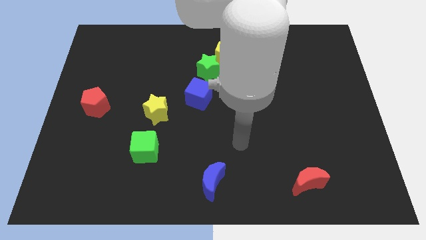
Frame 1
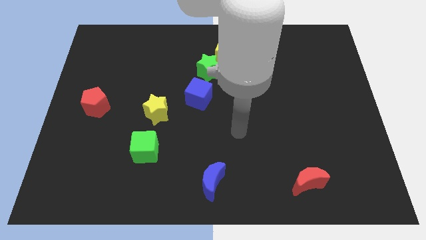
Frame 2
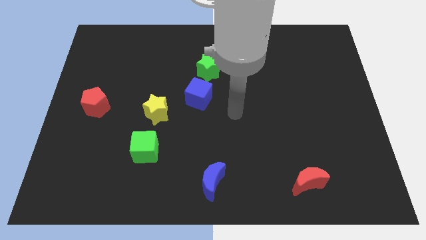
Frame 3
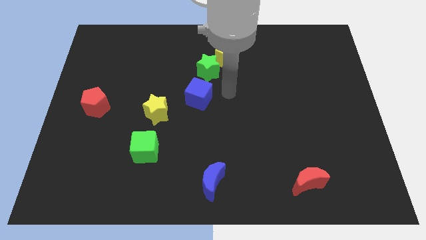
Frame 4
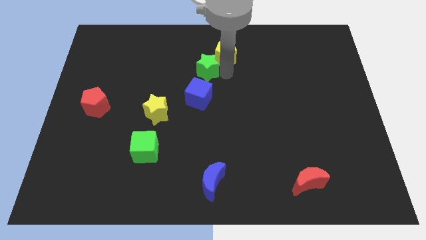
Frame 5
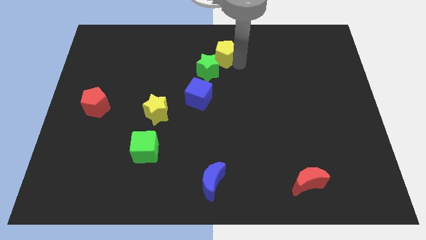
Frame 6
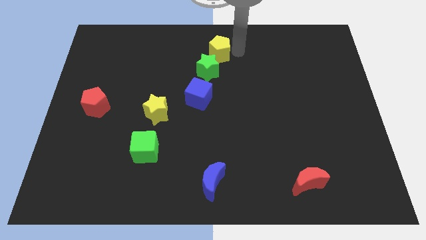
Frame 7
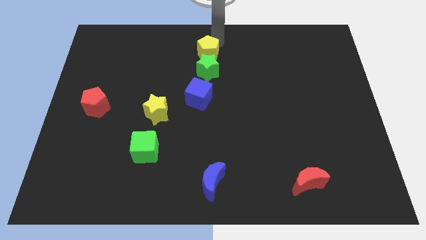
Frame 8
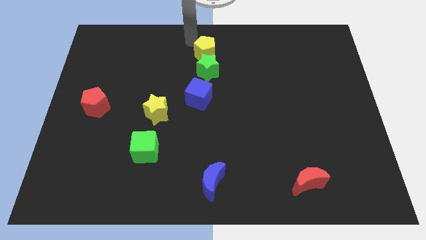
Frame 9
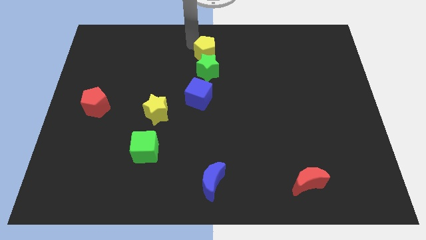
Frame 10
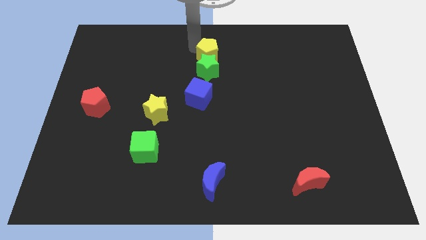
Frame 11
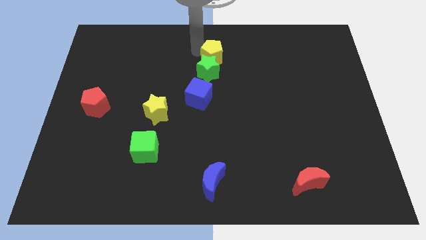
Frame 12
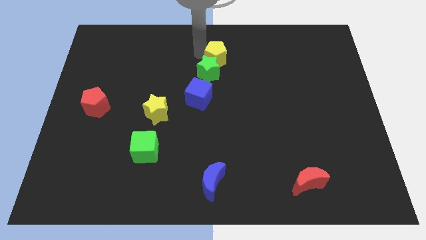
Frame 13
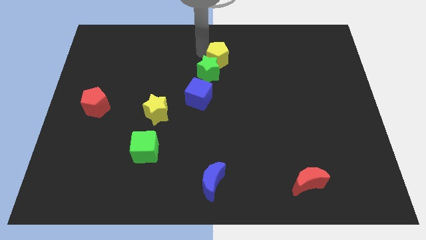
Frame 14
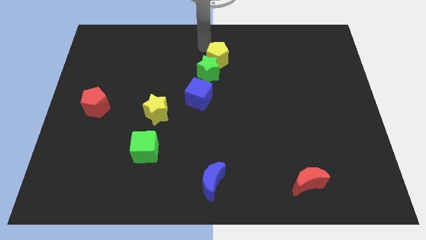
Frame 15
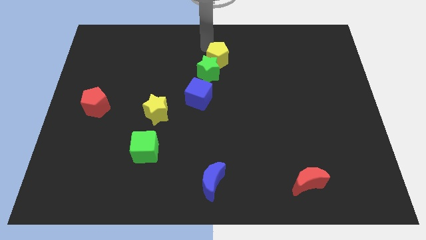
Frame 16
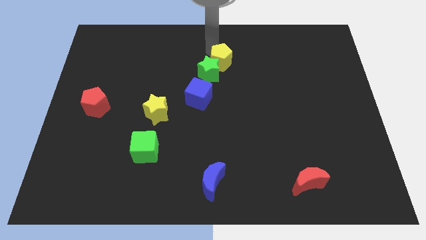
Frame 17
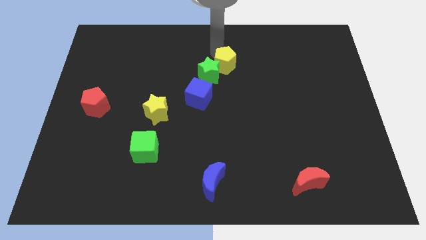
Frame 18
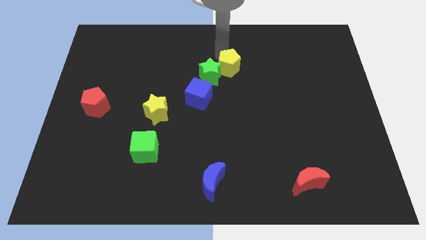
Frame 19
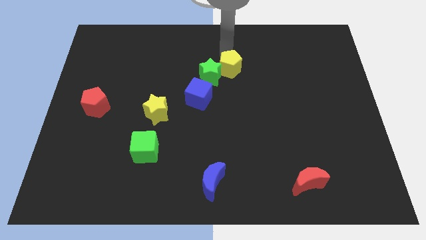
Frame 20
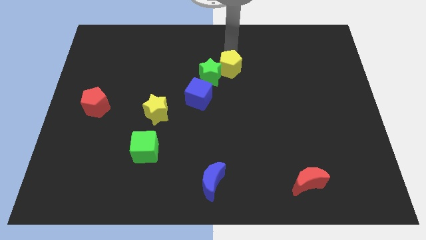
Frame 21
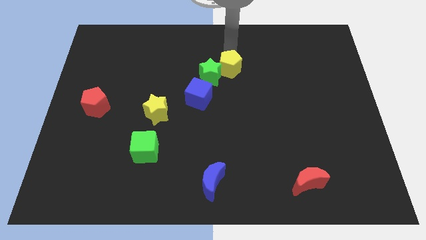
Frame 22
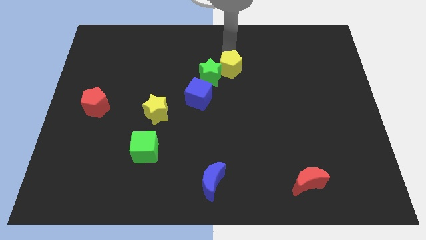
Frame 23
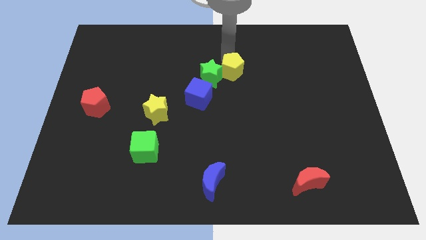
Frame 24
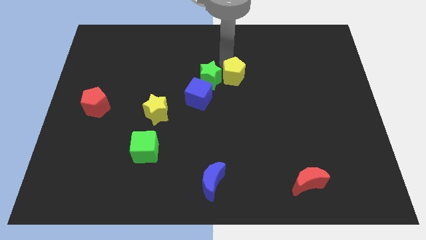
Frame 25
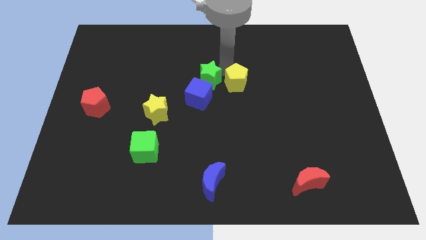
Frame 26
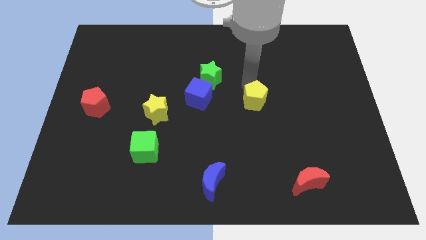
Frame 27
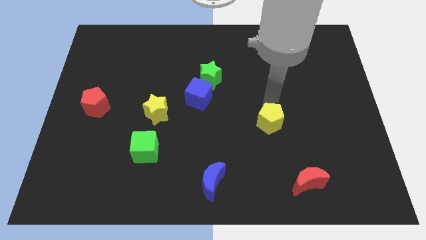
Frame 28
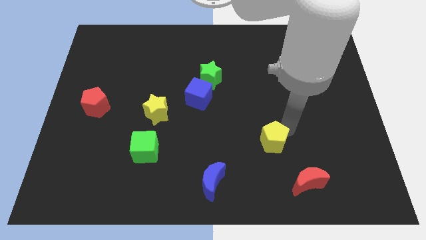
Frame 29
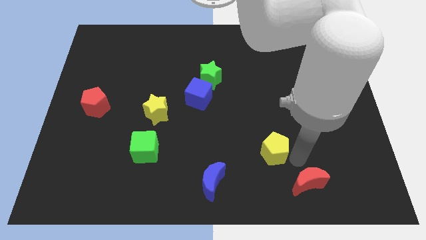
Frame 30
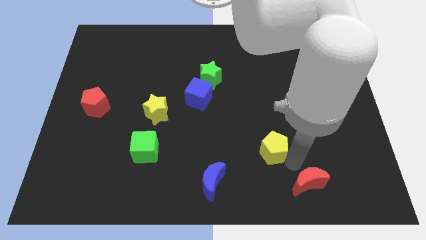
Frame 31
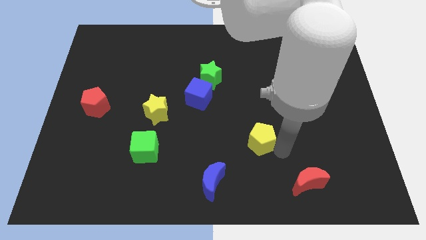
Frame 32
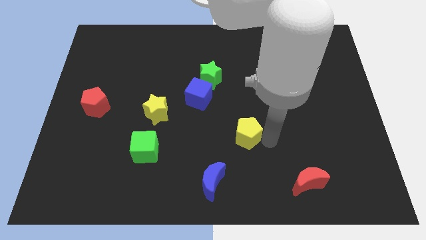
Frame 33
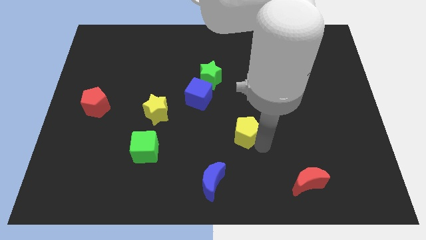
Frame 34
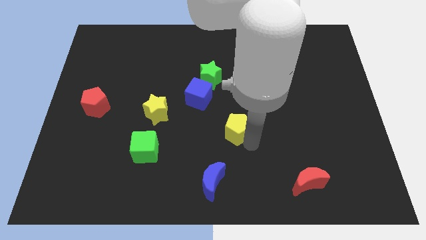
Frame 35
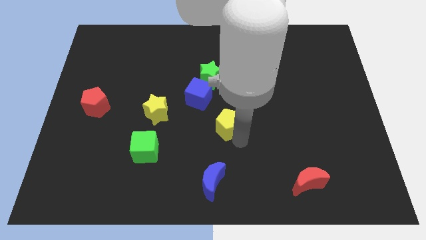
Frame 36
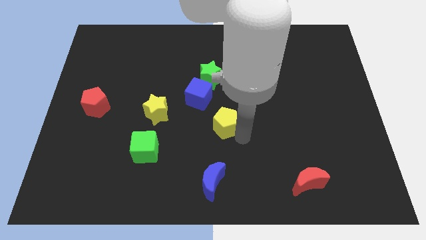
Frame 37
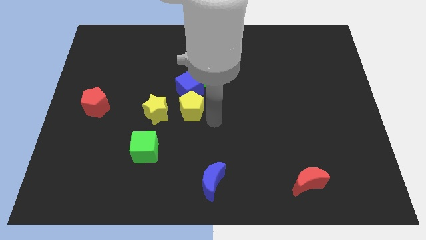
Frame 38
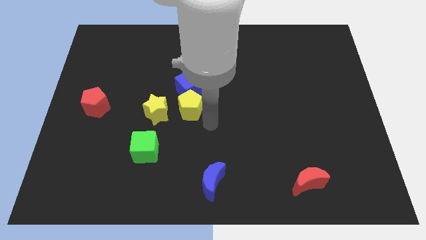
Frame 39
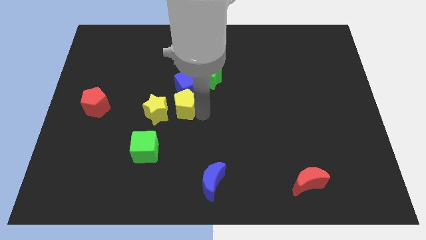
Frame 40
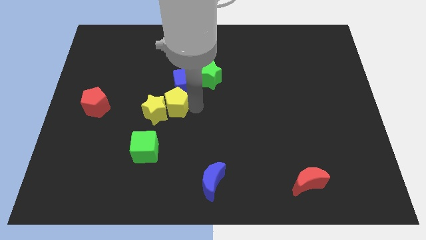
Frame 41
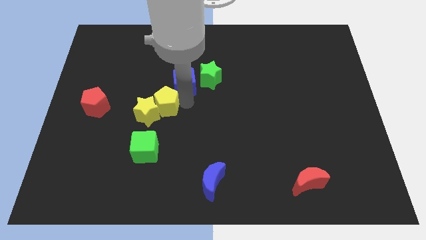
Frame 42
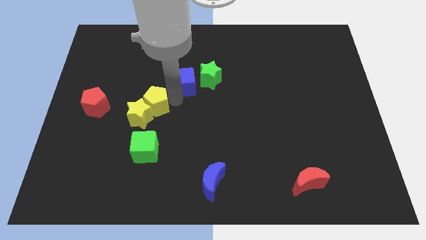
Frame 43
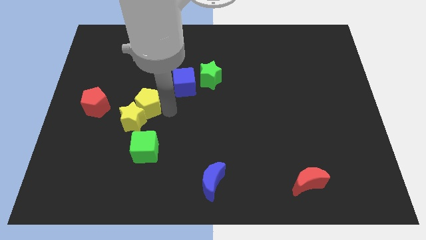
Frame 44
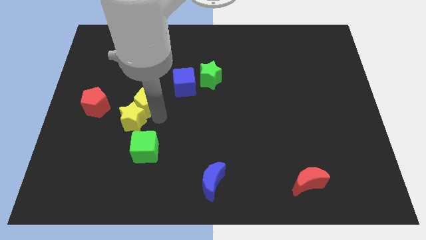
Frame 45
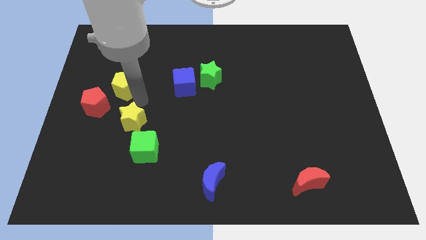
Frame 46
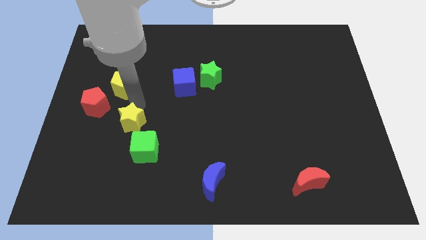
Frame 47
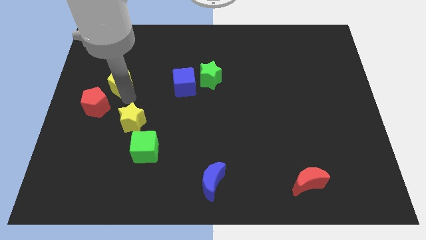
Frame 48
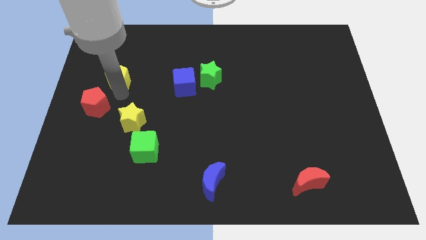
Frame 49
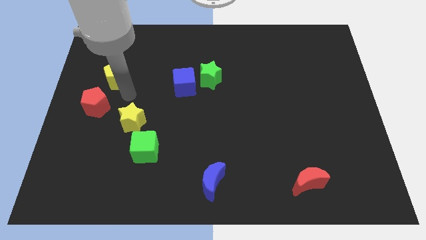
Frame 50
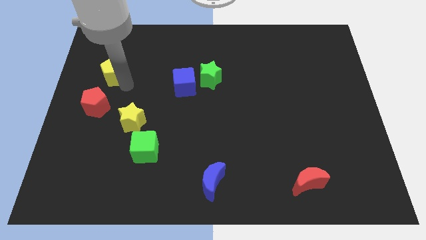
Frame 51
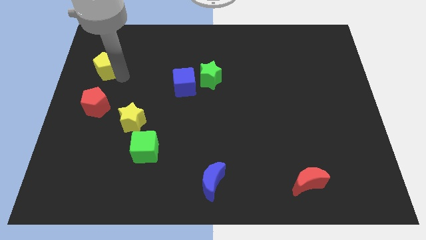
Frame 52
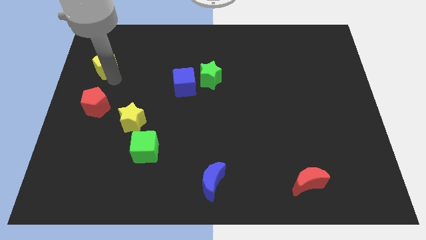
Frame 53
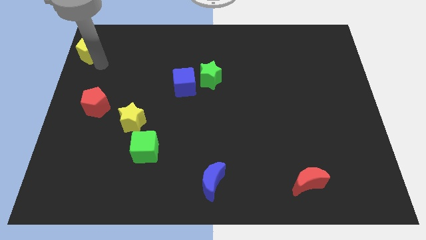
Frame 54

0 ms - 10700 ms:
put the yellow pentagon to the top left of the board
